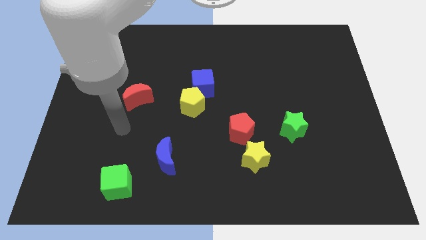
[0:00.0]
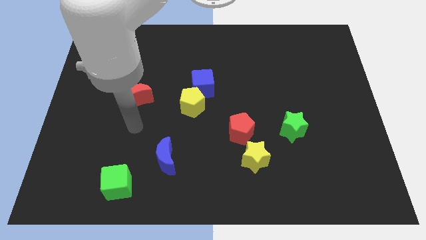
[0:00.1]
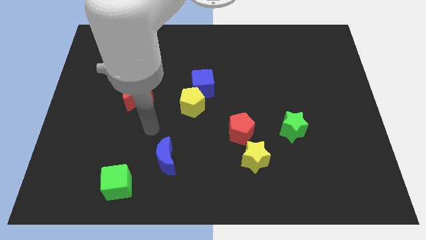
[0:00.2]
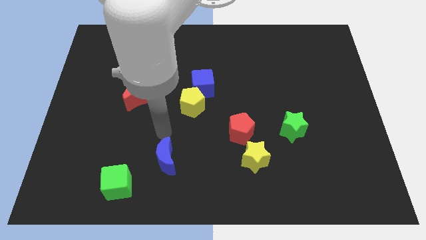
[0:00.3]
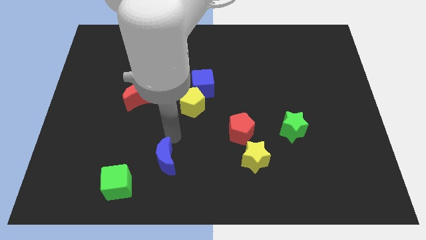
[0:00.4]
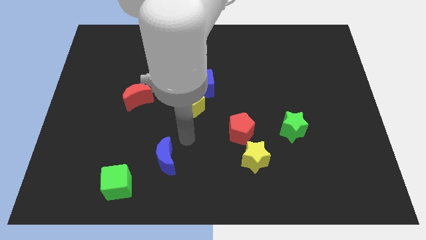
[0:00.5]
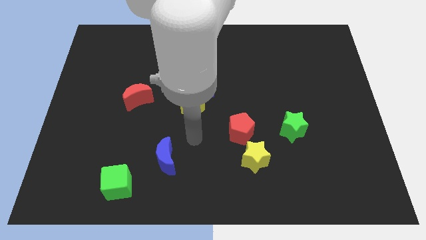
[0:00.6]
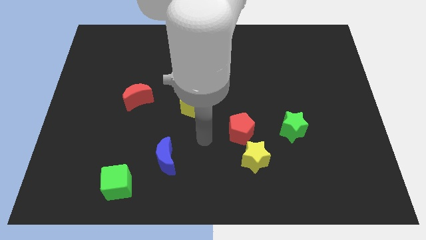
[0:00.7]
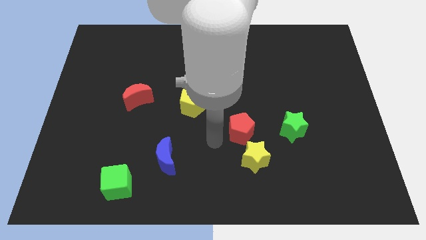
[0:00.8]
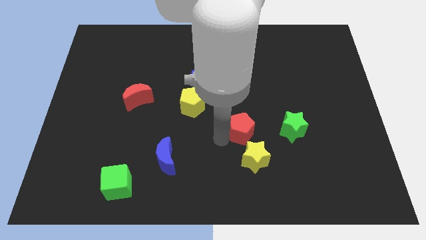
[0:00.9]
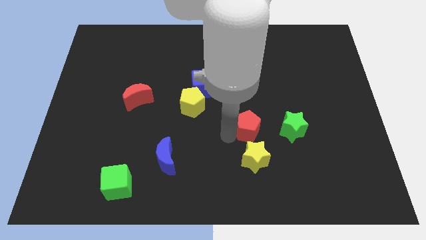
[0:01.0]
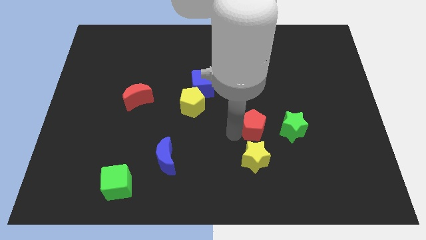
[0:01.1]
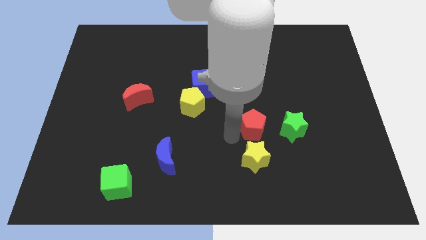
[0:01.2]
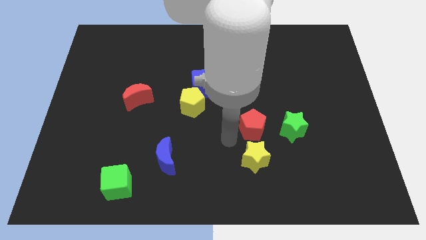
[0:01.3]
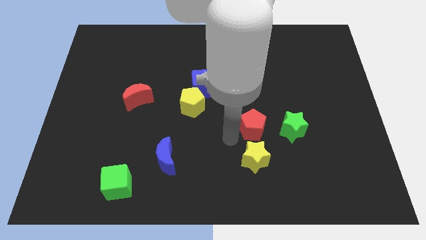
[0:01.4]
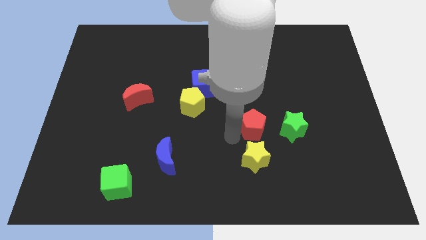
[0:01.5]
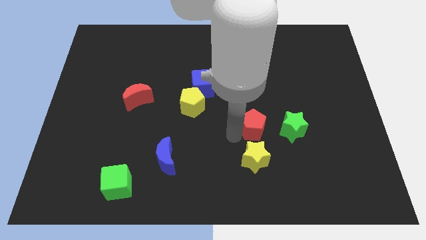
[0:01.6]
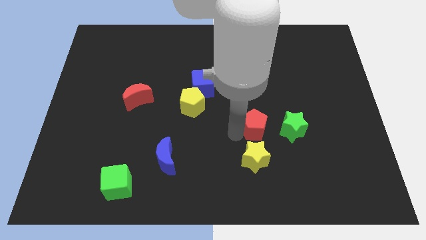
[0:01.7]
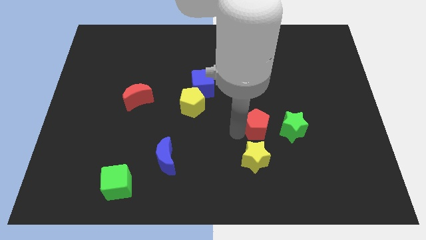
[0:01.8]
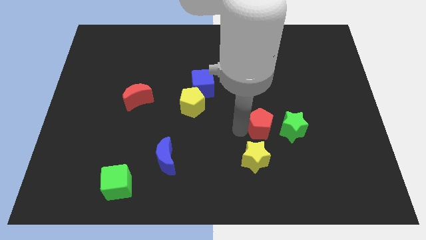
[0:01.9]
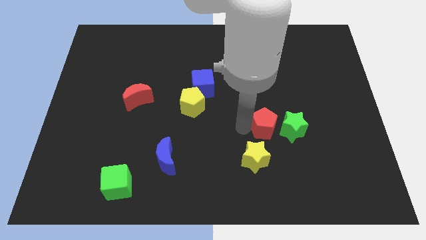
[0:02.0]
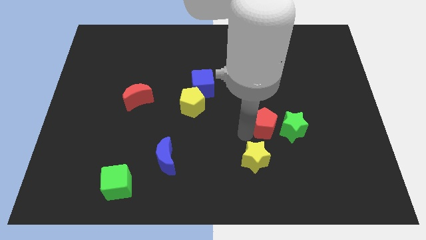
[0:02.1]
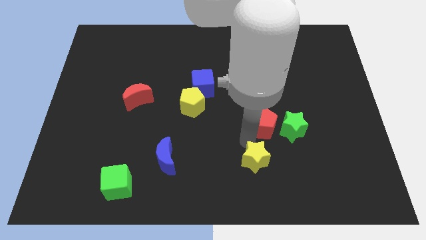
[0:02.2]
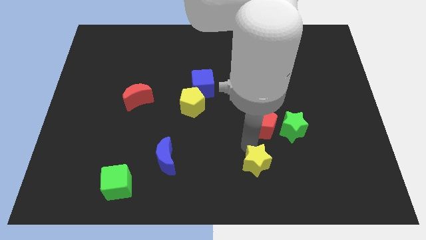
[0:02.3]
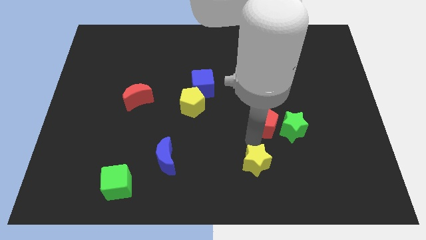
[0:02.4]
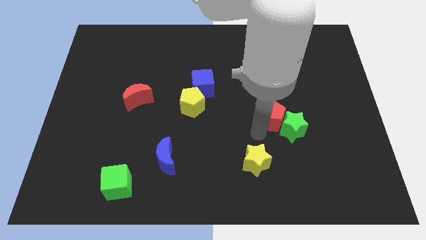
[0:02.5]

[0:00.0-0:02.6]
slide the red pentagon slightly up and to the right

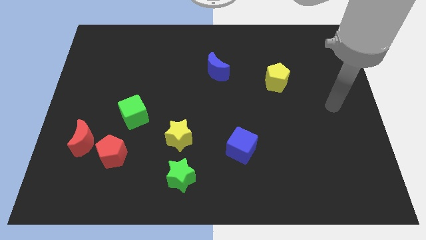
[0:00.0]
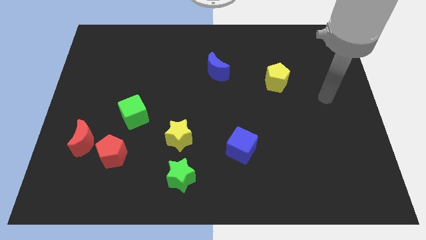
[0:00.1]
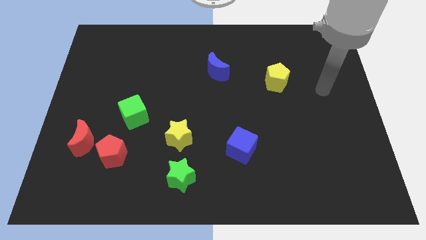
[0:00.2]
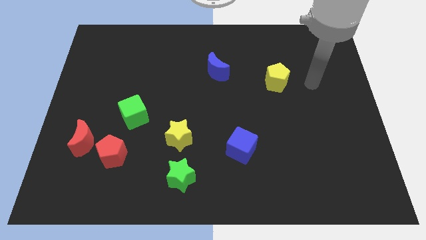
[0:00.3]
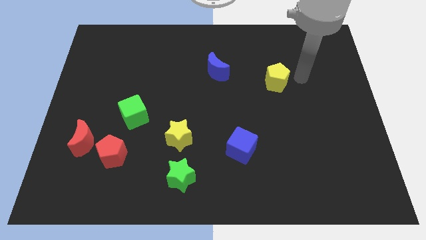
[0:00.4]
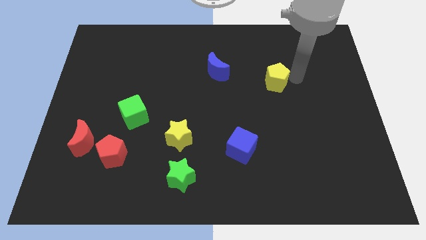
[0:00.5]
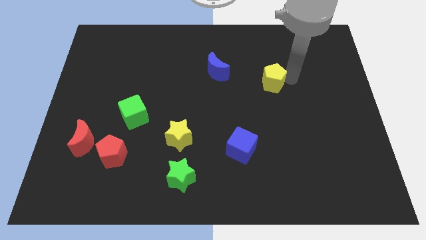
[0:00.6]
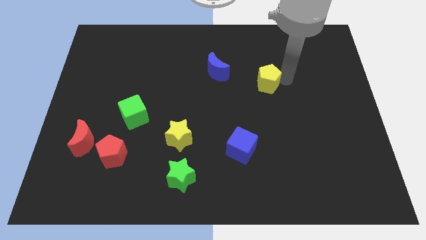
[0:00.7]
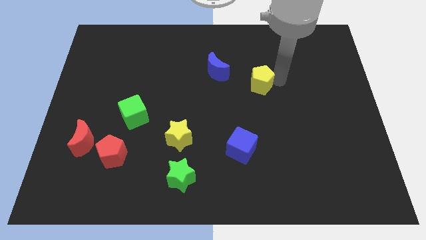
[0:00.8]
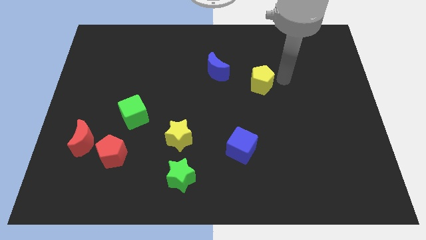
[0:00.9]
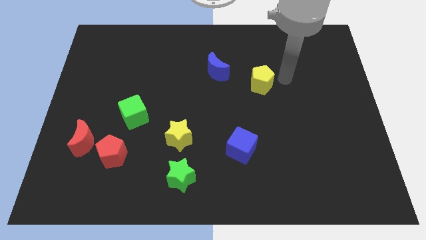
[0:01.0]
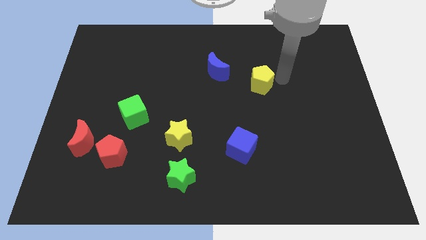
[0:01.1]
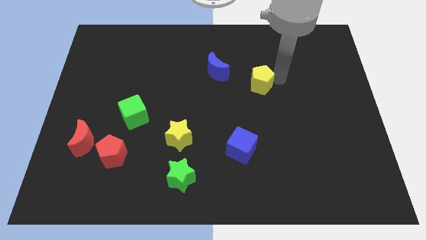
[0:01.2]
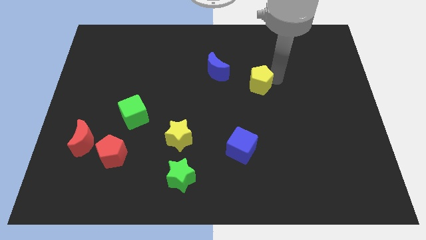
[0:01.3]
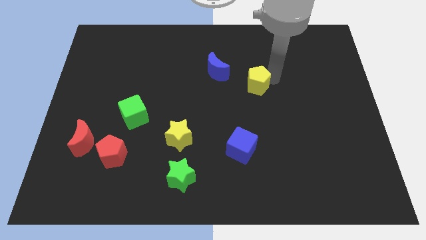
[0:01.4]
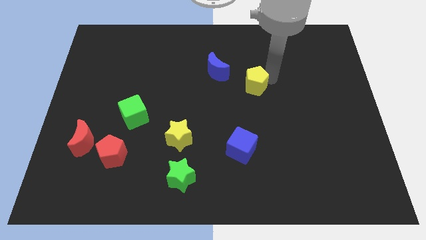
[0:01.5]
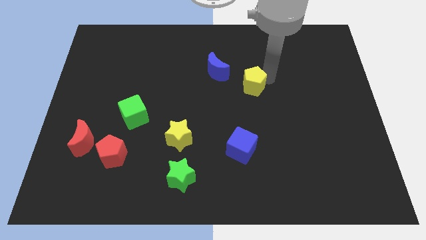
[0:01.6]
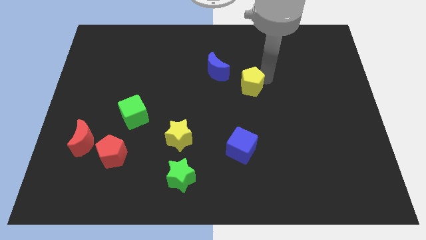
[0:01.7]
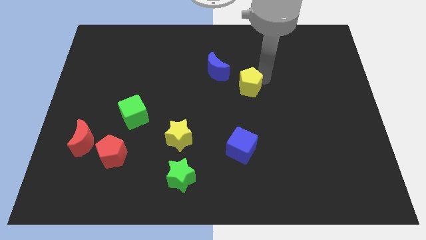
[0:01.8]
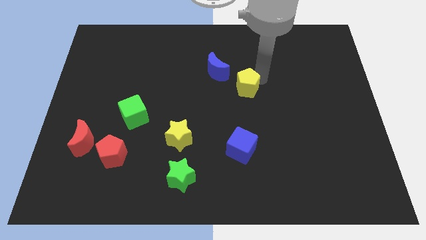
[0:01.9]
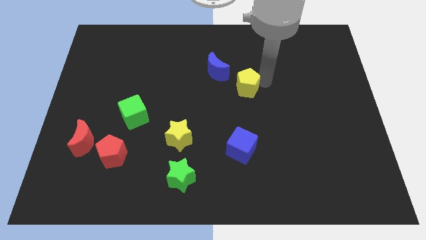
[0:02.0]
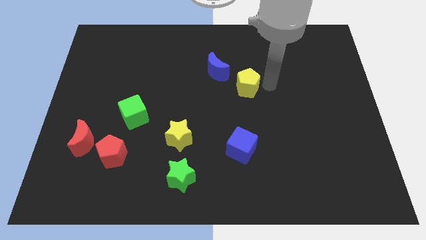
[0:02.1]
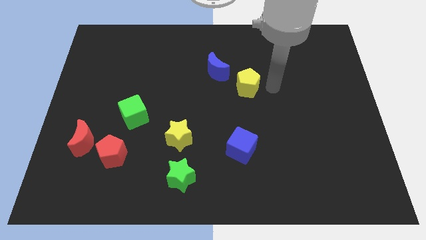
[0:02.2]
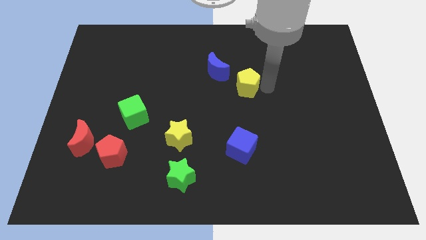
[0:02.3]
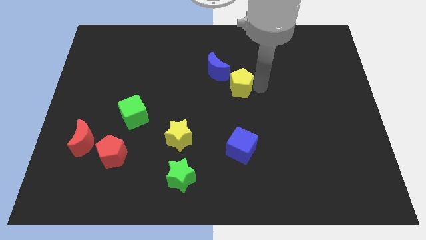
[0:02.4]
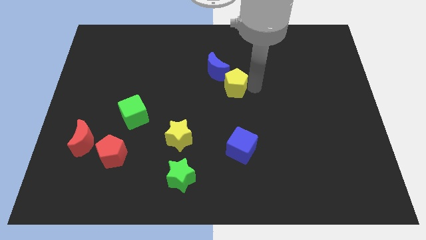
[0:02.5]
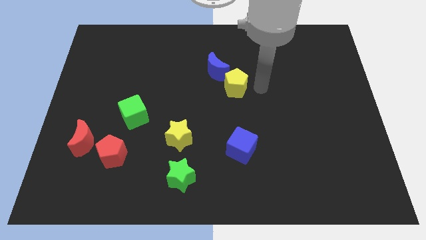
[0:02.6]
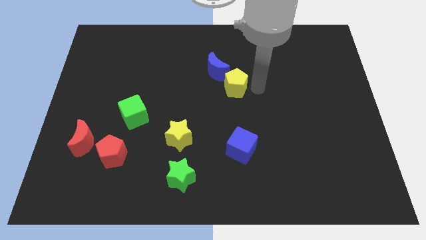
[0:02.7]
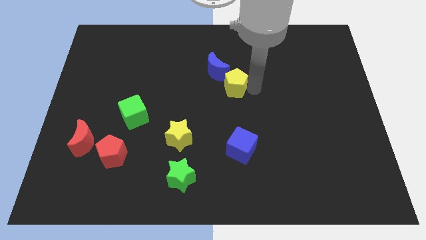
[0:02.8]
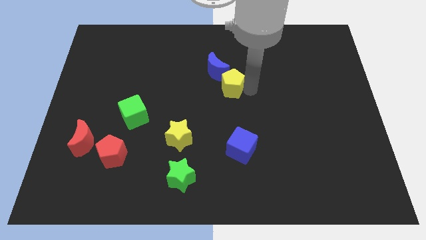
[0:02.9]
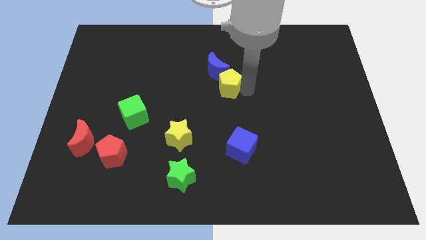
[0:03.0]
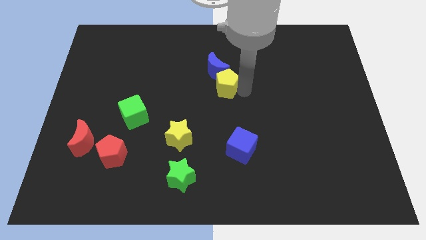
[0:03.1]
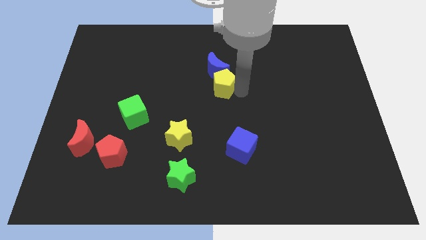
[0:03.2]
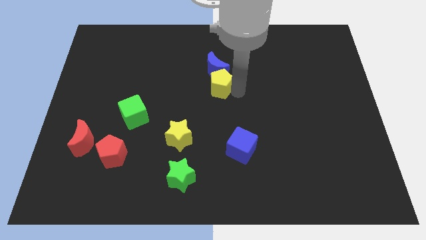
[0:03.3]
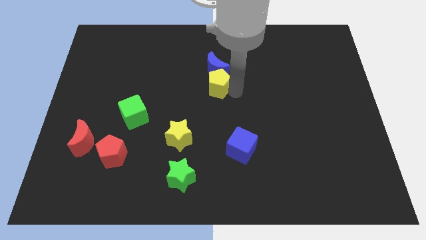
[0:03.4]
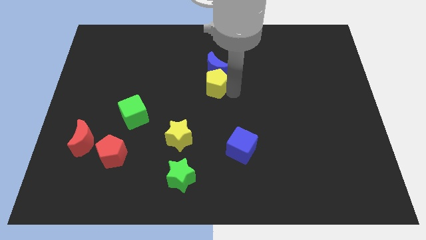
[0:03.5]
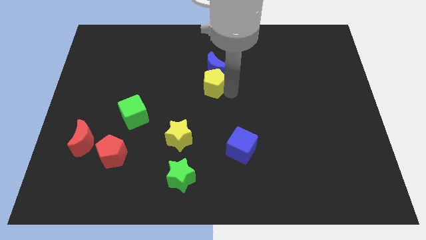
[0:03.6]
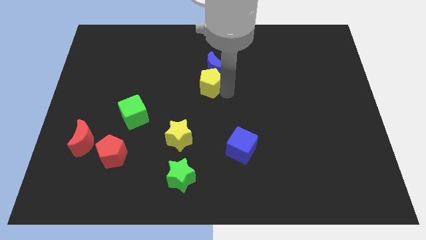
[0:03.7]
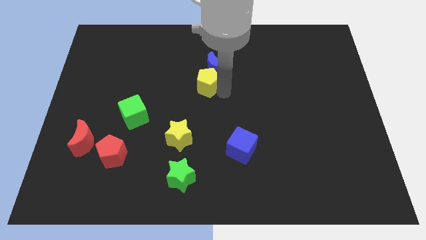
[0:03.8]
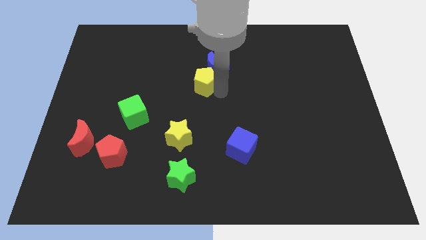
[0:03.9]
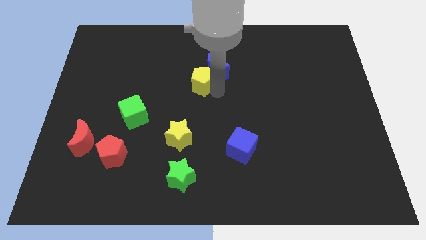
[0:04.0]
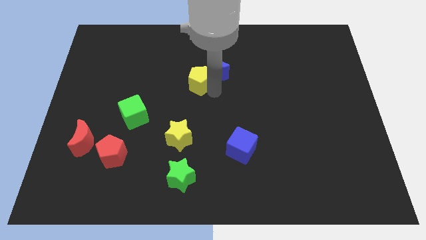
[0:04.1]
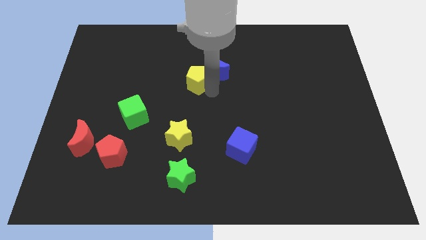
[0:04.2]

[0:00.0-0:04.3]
slide the yellow pentagon to the left

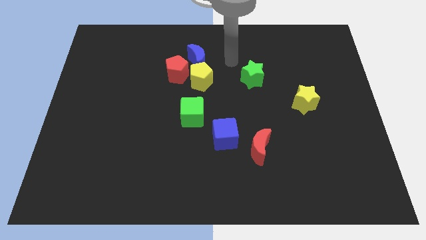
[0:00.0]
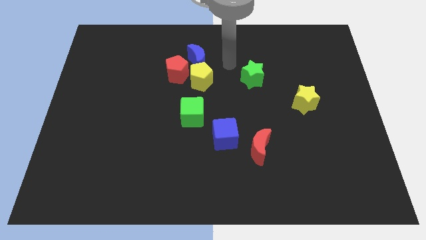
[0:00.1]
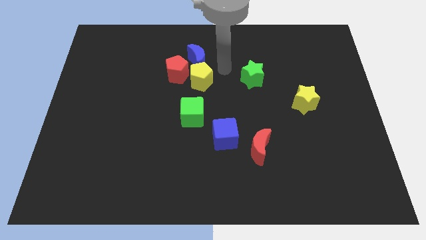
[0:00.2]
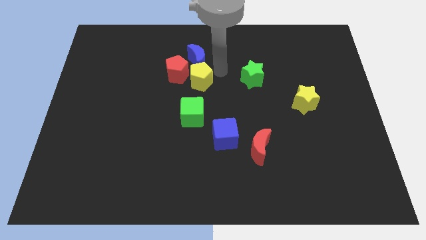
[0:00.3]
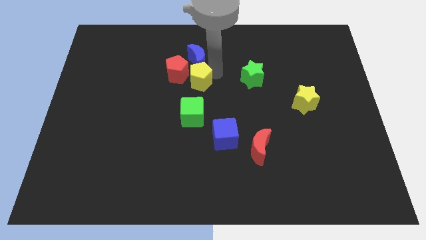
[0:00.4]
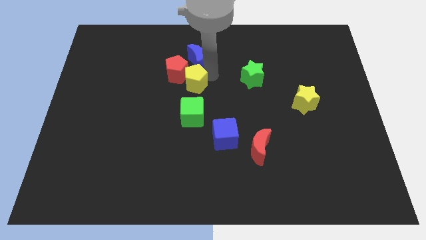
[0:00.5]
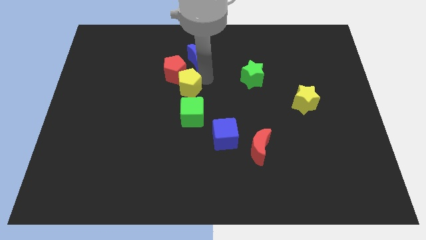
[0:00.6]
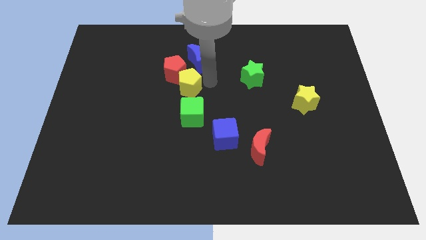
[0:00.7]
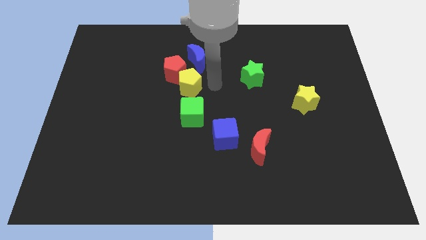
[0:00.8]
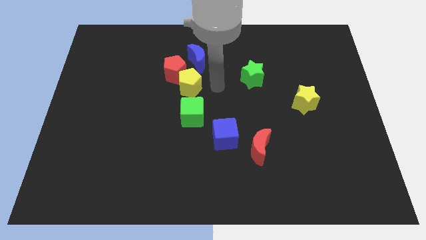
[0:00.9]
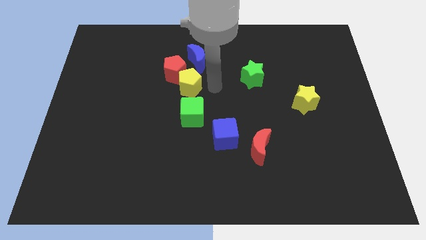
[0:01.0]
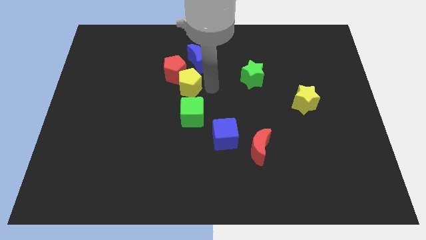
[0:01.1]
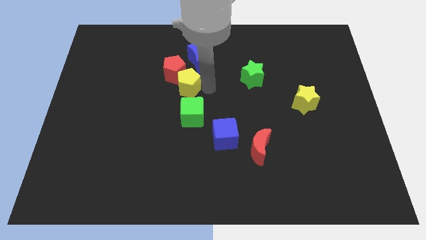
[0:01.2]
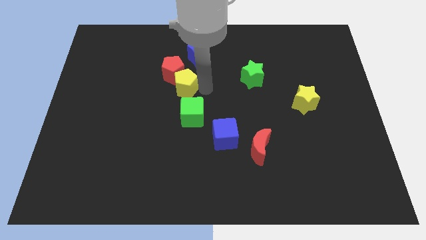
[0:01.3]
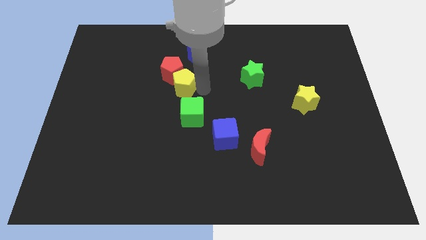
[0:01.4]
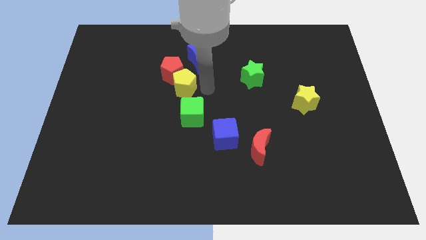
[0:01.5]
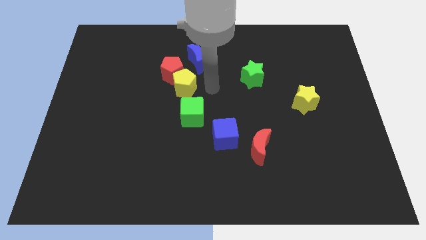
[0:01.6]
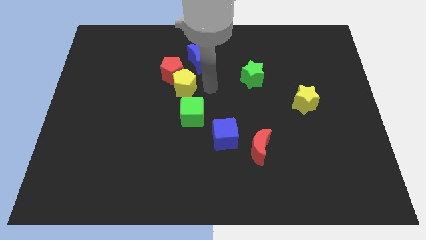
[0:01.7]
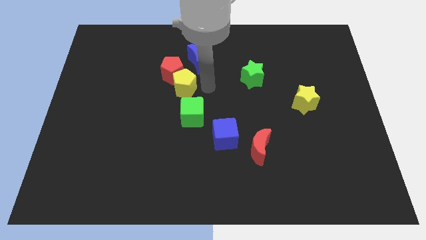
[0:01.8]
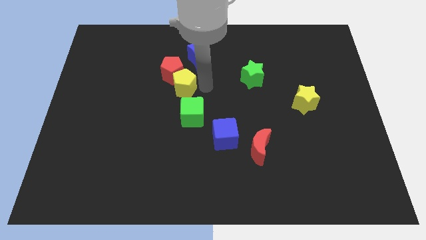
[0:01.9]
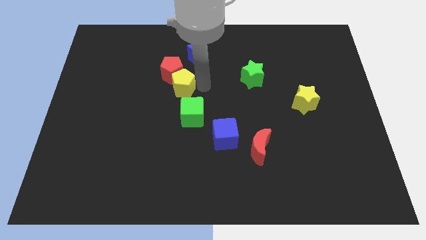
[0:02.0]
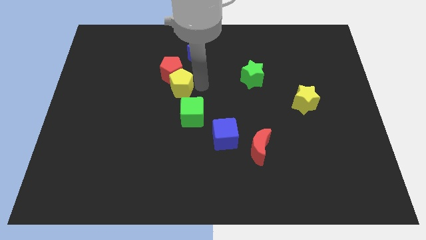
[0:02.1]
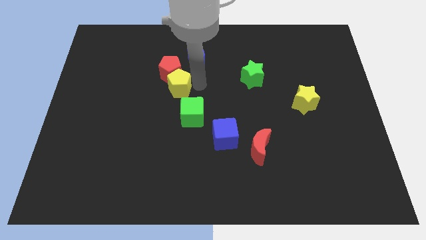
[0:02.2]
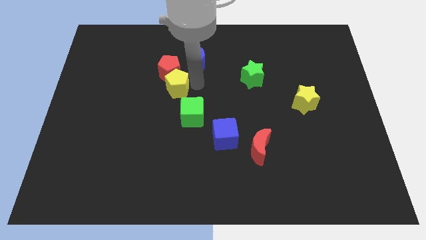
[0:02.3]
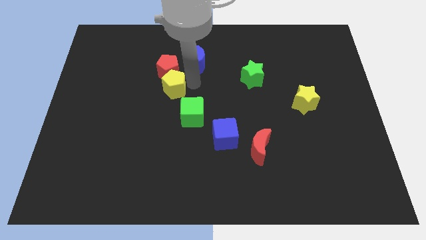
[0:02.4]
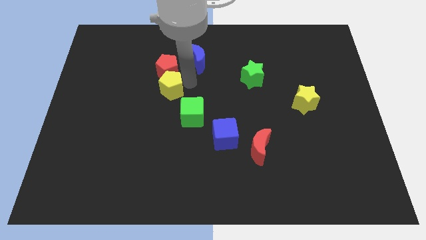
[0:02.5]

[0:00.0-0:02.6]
push the yellow pentagon left a little
